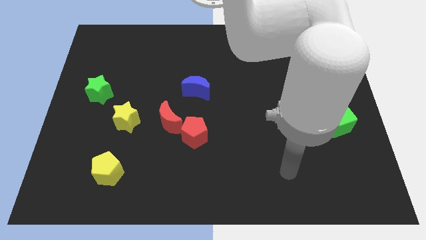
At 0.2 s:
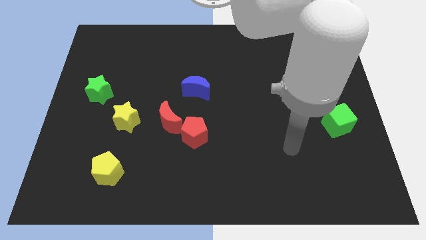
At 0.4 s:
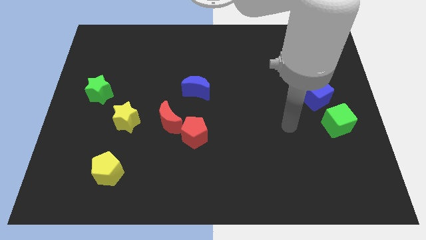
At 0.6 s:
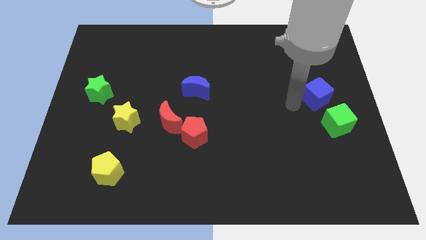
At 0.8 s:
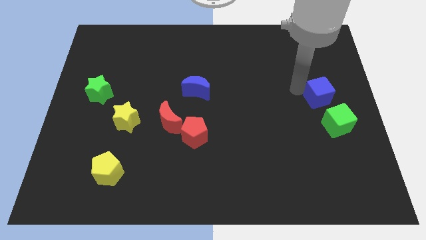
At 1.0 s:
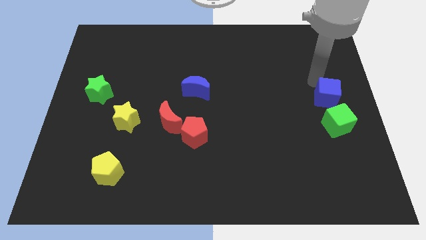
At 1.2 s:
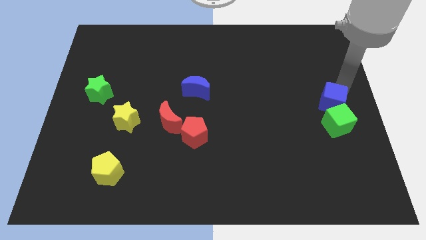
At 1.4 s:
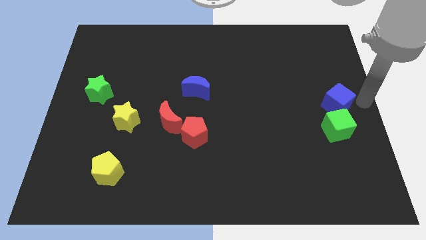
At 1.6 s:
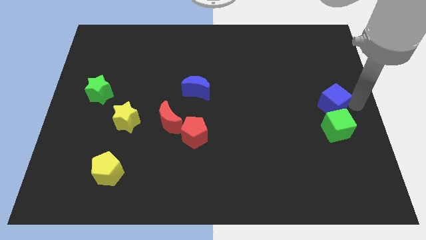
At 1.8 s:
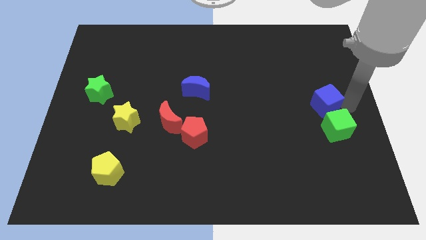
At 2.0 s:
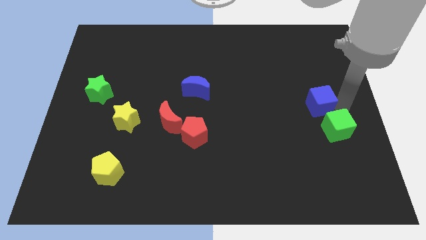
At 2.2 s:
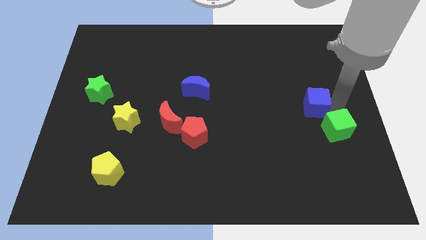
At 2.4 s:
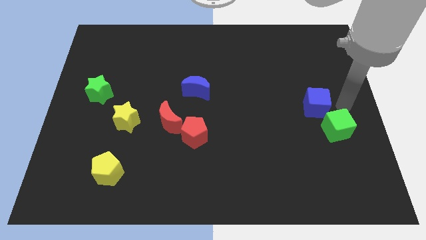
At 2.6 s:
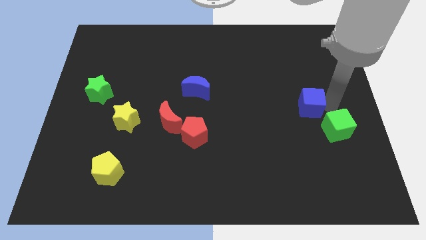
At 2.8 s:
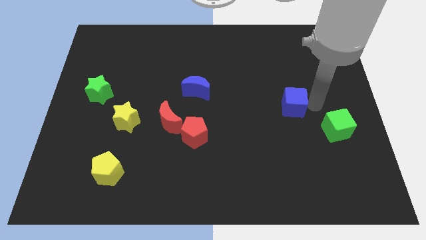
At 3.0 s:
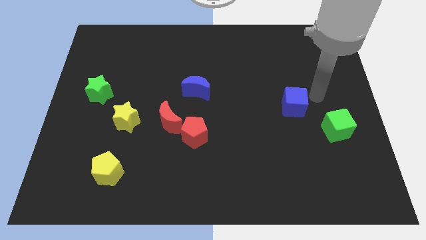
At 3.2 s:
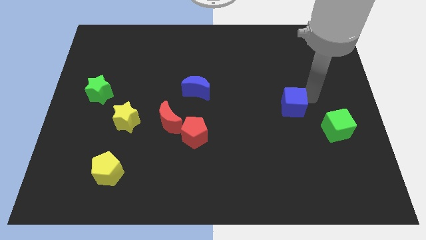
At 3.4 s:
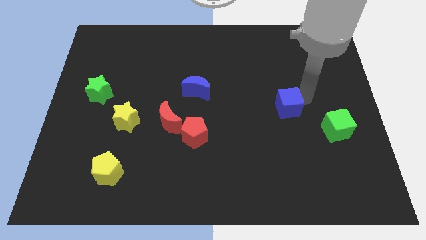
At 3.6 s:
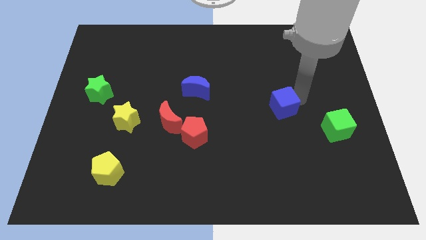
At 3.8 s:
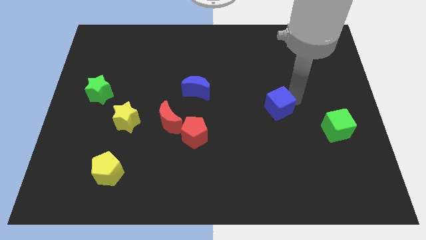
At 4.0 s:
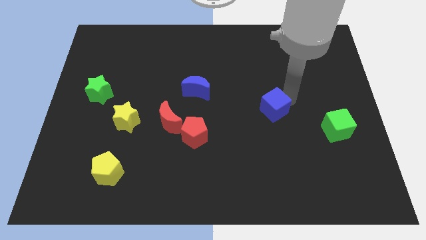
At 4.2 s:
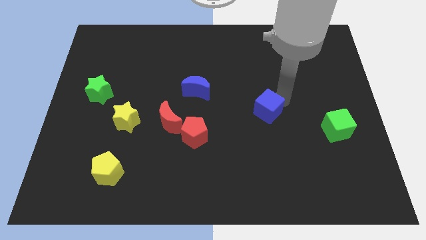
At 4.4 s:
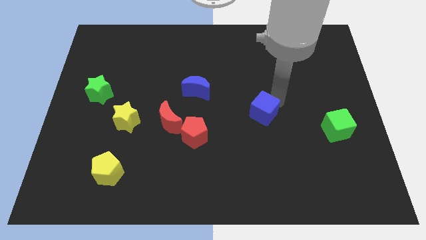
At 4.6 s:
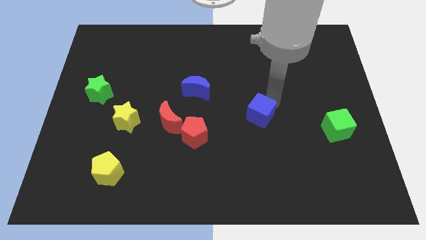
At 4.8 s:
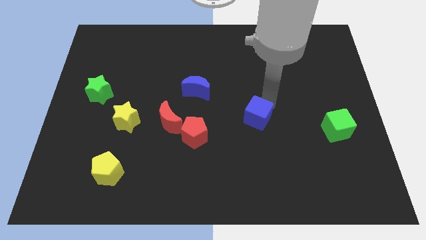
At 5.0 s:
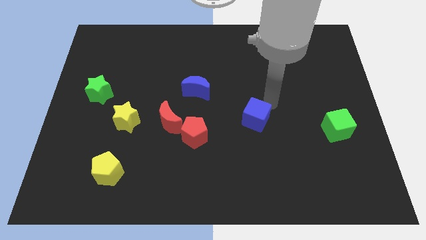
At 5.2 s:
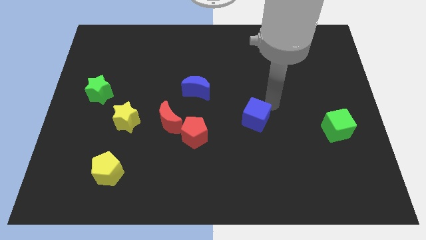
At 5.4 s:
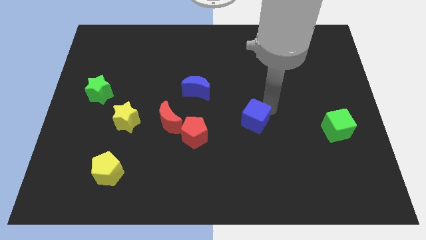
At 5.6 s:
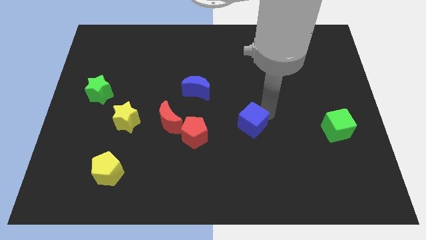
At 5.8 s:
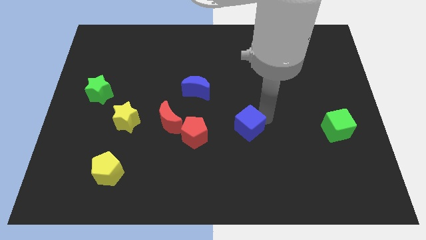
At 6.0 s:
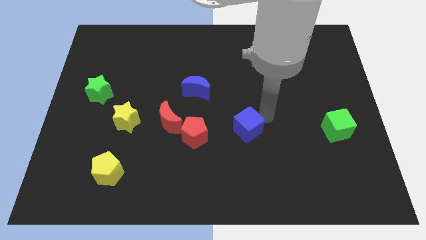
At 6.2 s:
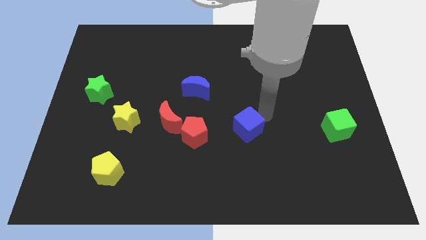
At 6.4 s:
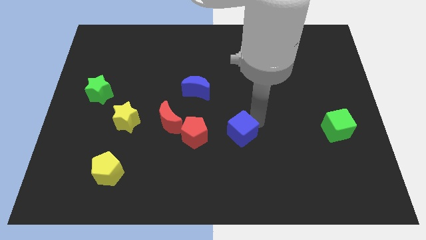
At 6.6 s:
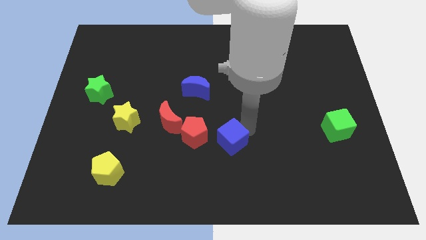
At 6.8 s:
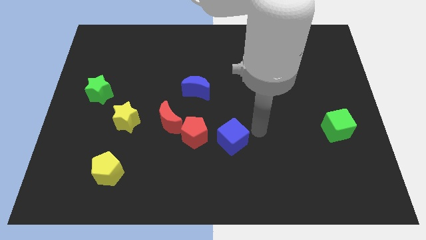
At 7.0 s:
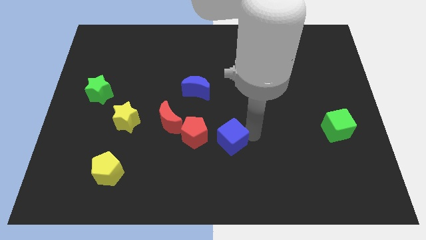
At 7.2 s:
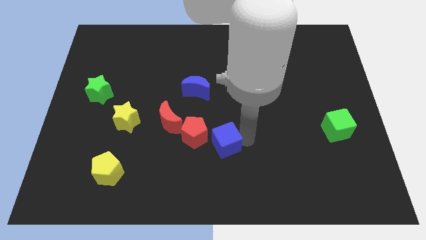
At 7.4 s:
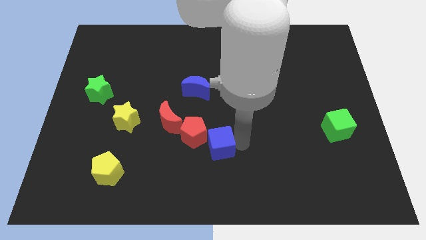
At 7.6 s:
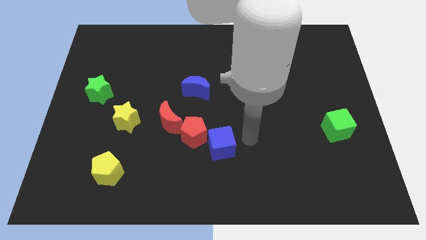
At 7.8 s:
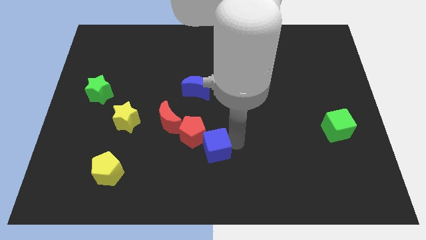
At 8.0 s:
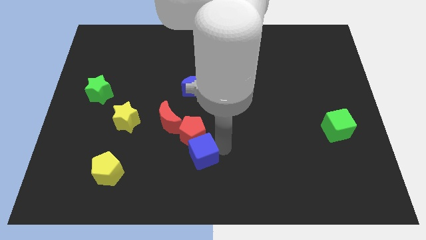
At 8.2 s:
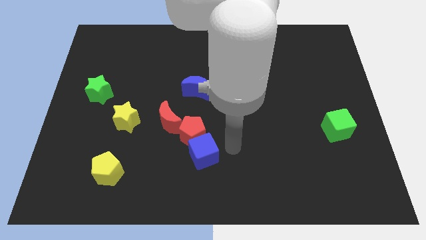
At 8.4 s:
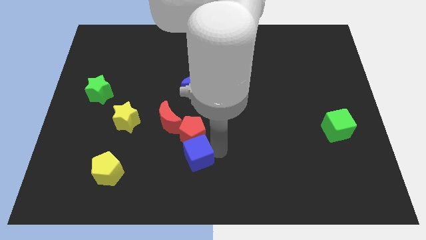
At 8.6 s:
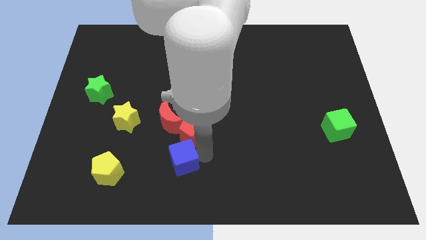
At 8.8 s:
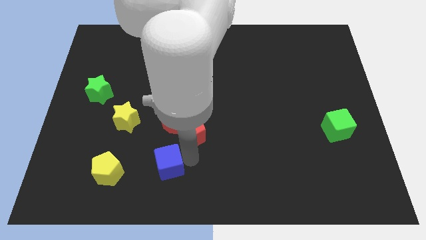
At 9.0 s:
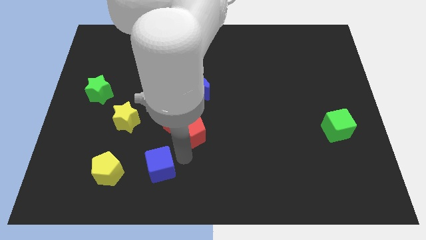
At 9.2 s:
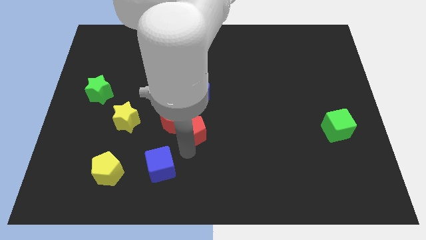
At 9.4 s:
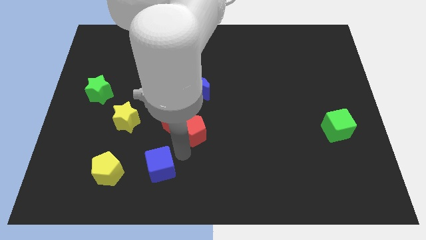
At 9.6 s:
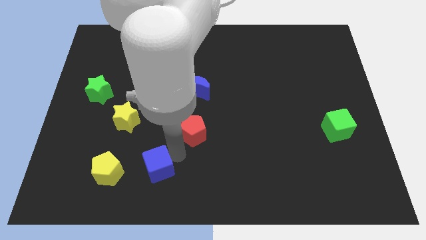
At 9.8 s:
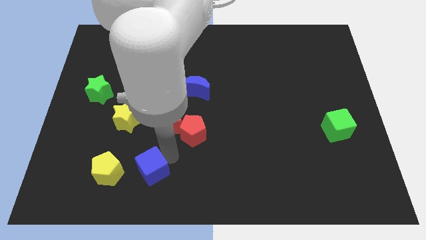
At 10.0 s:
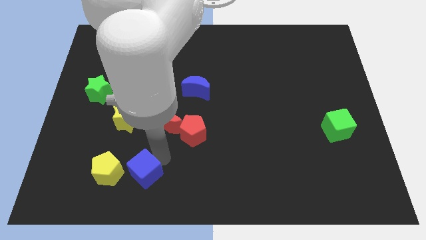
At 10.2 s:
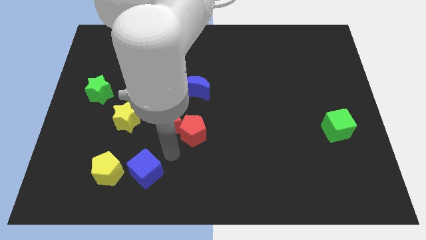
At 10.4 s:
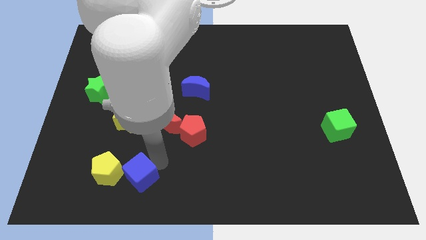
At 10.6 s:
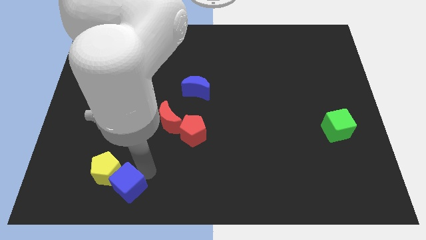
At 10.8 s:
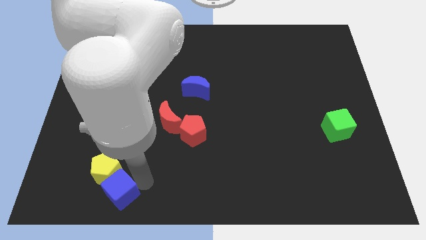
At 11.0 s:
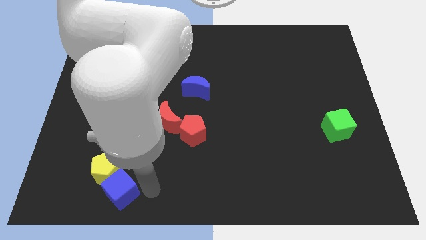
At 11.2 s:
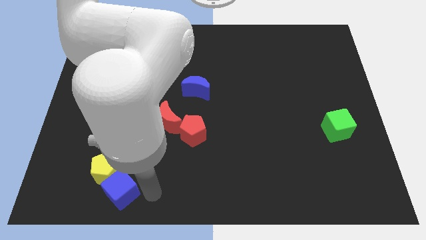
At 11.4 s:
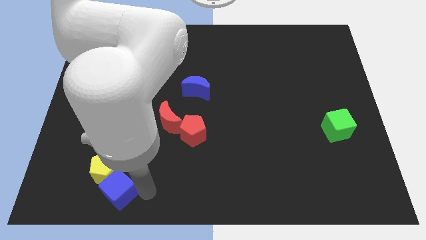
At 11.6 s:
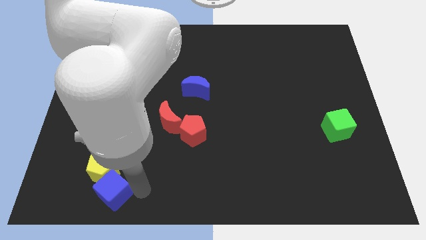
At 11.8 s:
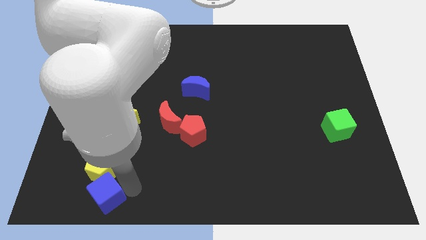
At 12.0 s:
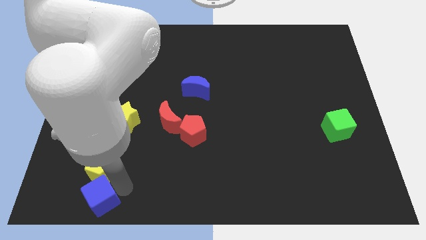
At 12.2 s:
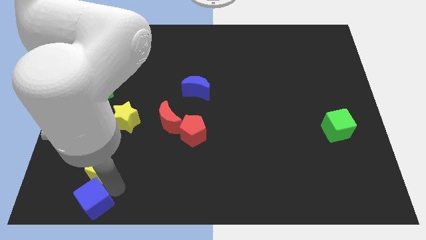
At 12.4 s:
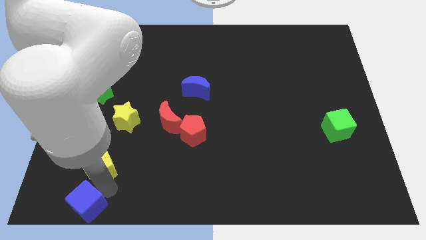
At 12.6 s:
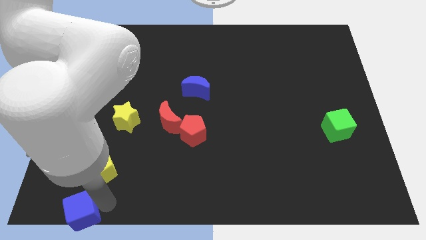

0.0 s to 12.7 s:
slide the blue cube to the bottom left

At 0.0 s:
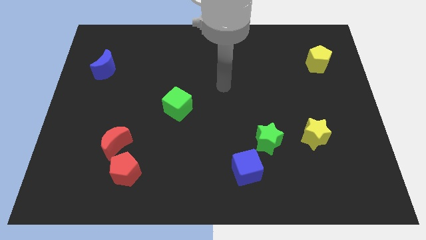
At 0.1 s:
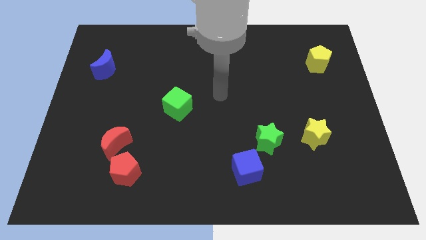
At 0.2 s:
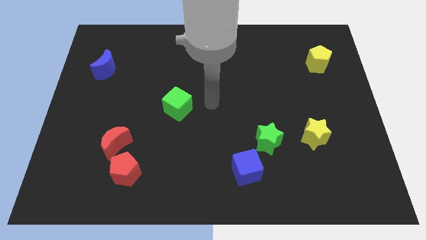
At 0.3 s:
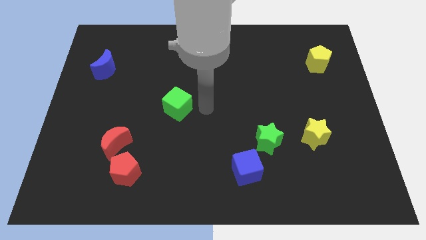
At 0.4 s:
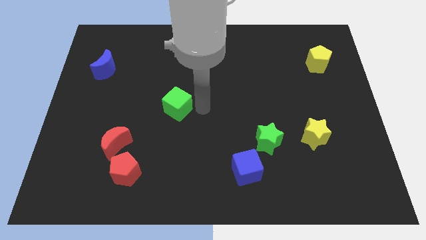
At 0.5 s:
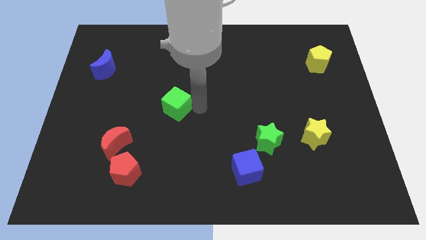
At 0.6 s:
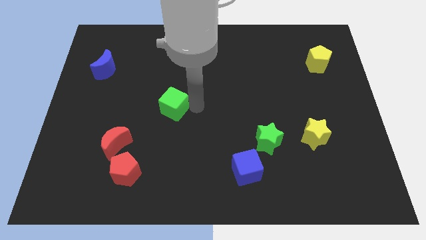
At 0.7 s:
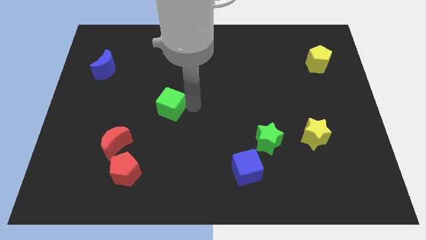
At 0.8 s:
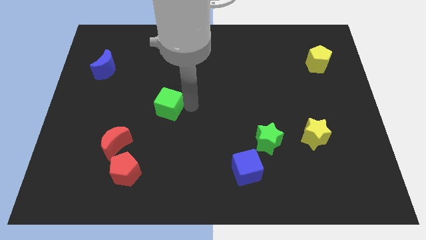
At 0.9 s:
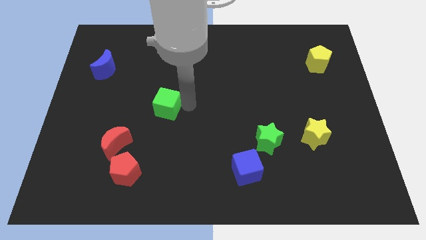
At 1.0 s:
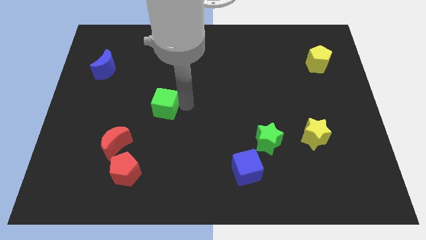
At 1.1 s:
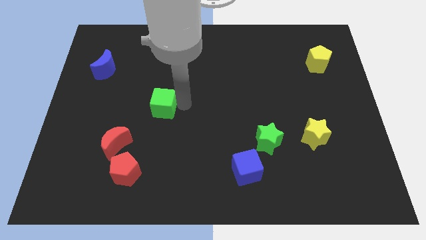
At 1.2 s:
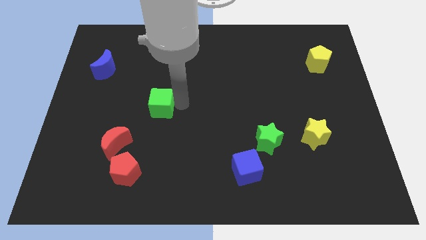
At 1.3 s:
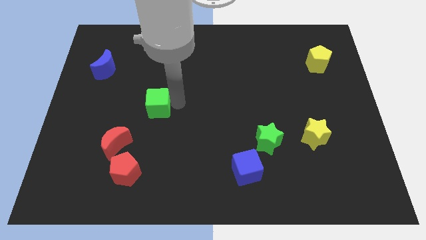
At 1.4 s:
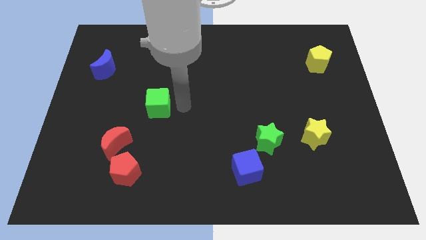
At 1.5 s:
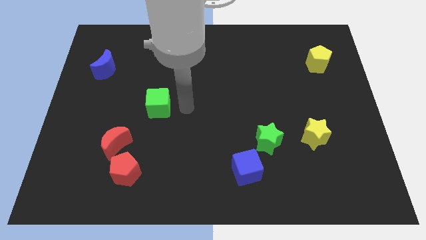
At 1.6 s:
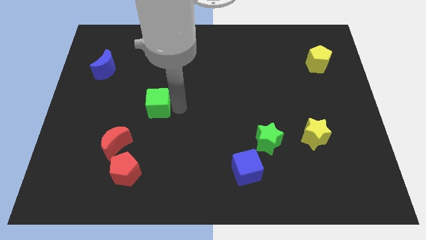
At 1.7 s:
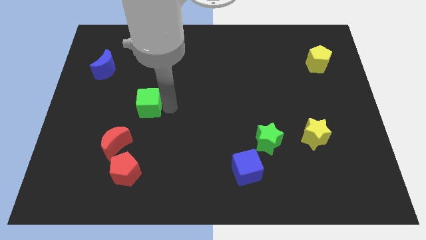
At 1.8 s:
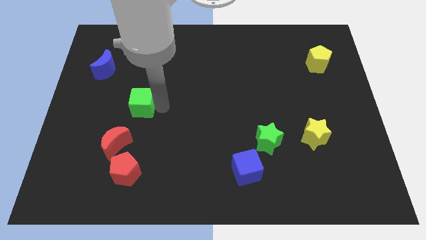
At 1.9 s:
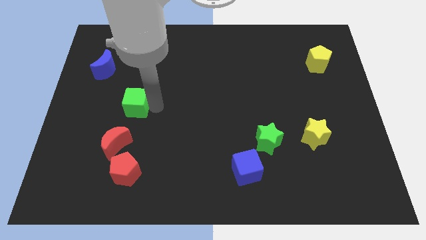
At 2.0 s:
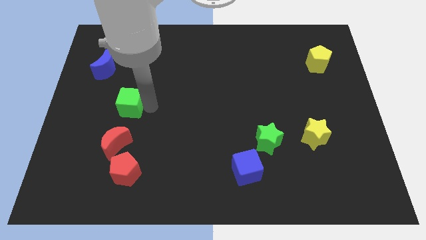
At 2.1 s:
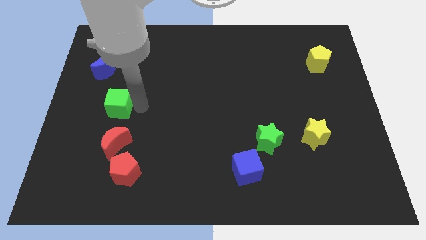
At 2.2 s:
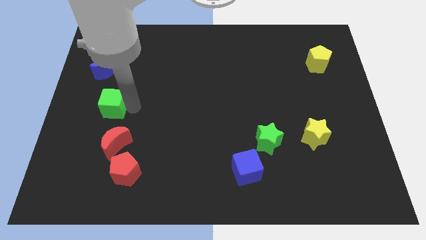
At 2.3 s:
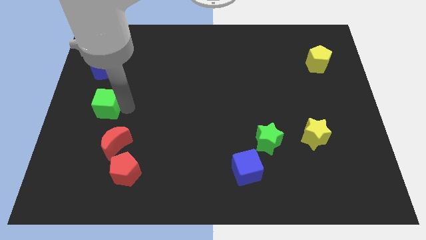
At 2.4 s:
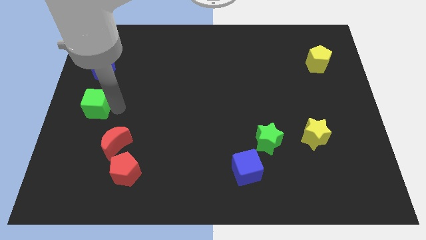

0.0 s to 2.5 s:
slide the green cube to the left side of the board
